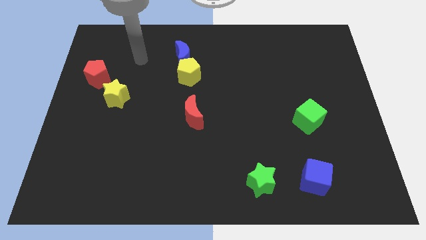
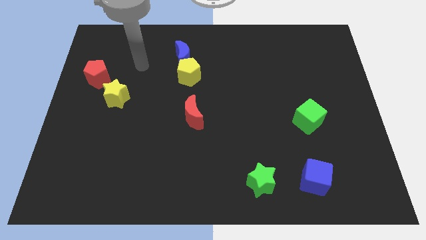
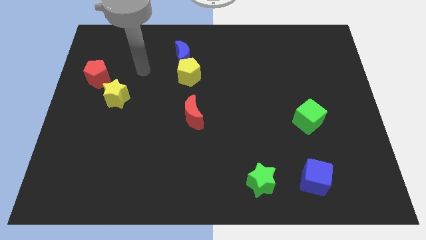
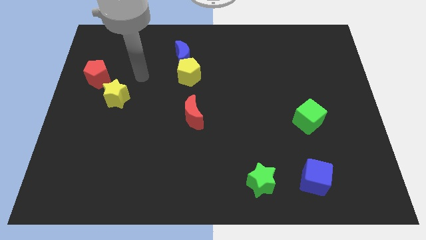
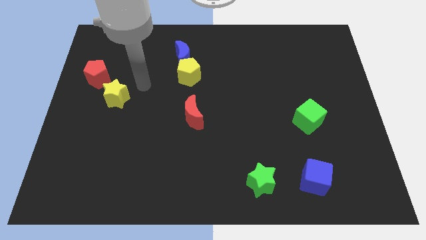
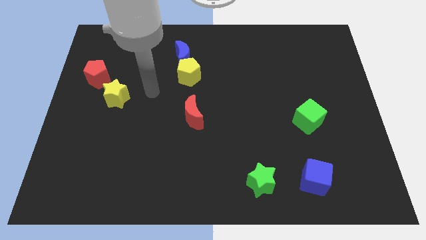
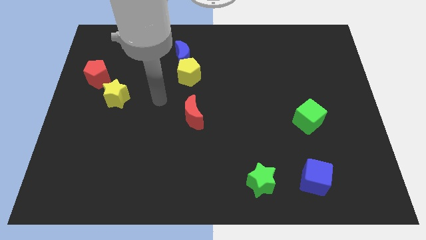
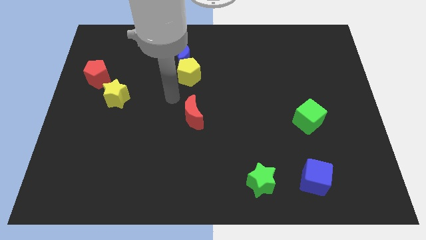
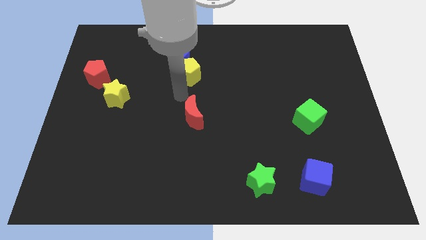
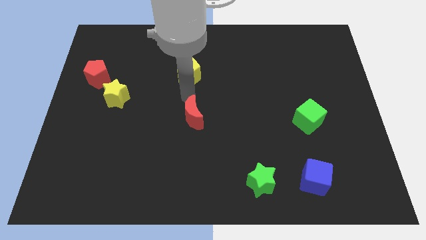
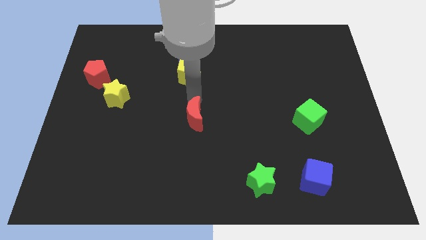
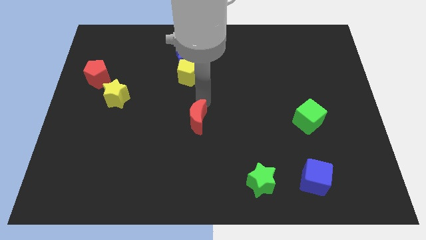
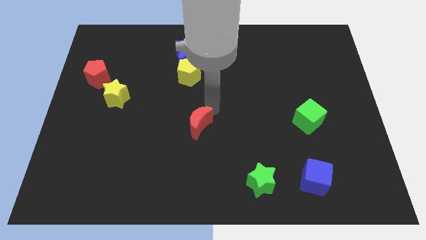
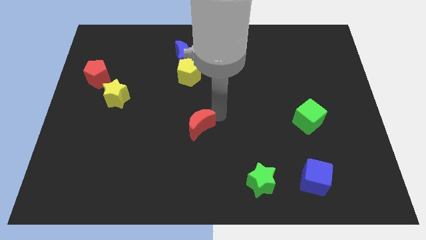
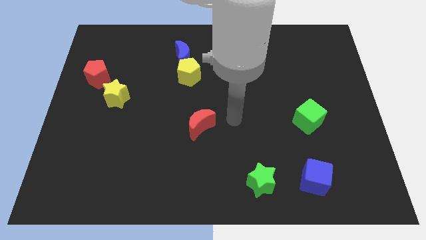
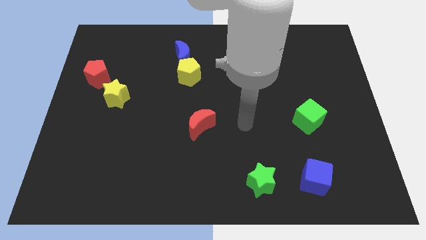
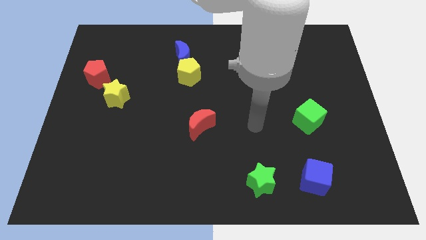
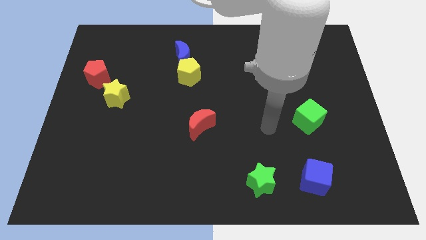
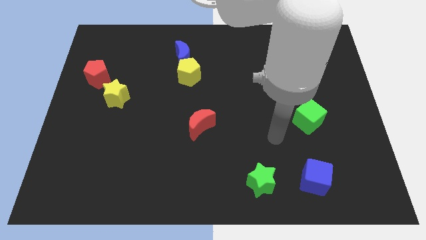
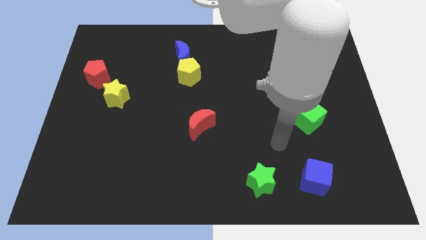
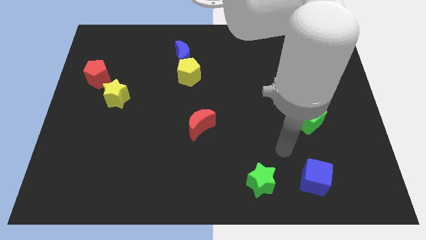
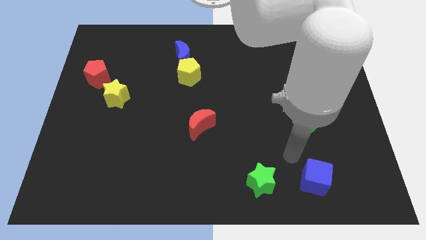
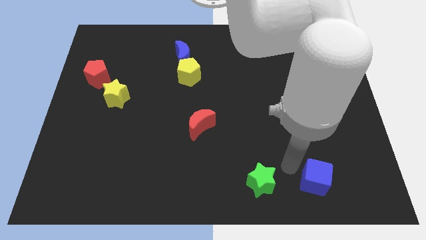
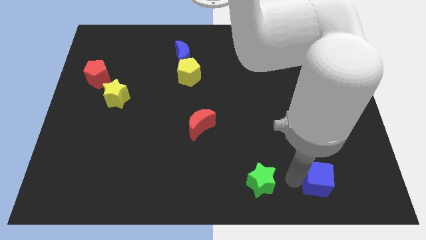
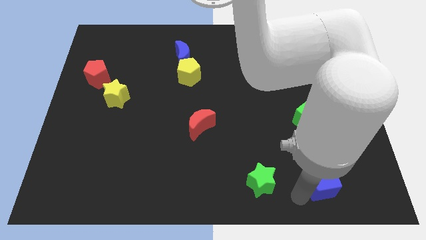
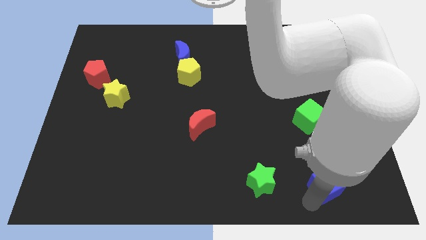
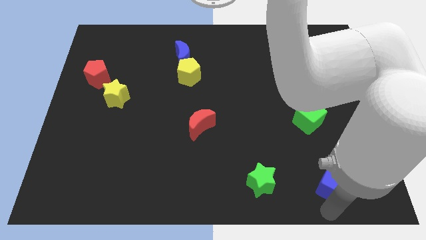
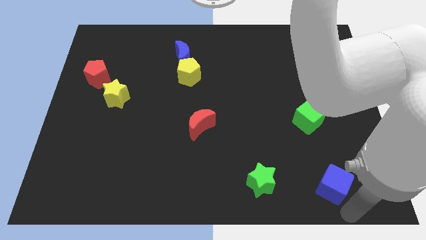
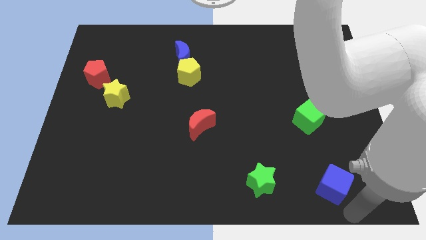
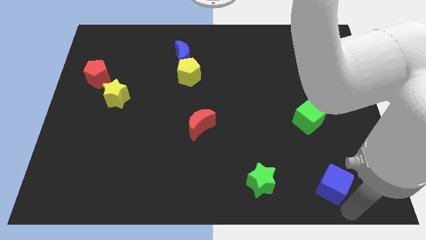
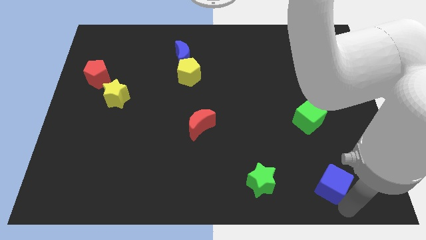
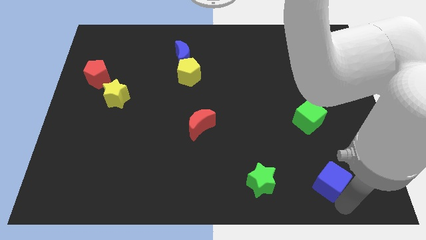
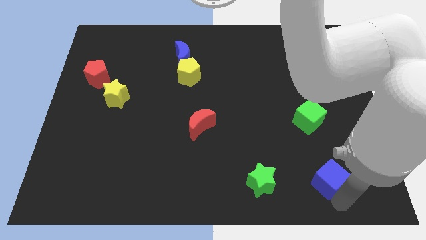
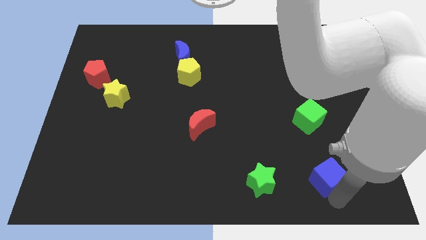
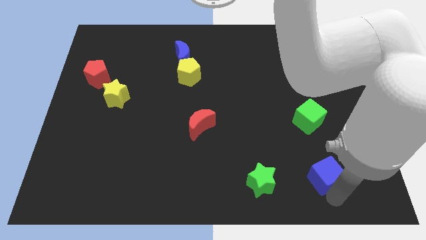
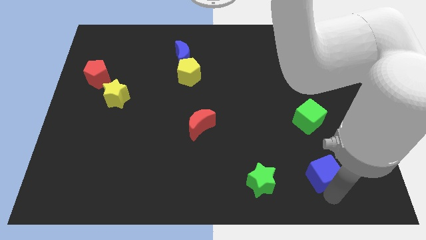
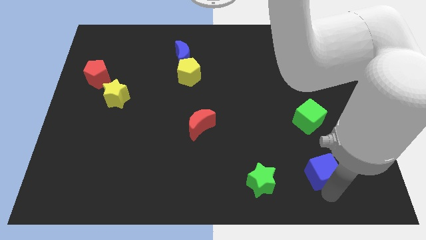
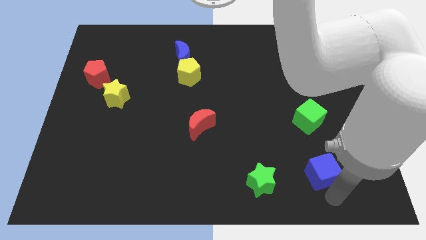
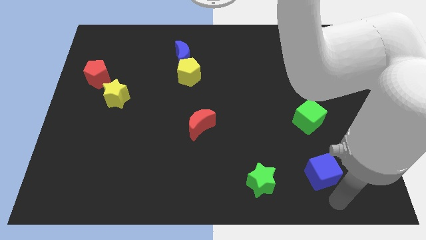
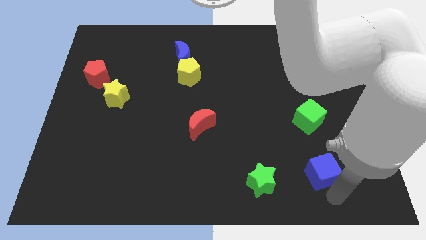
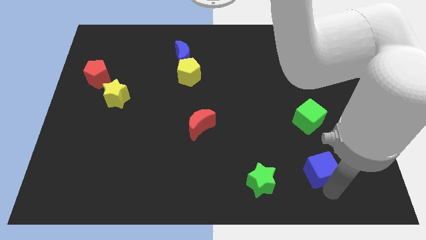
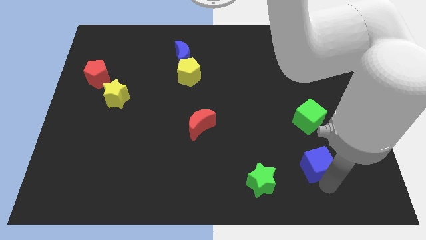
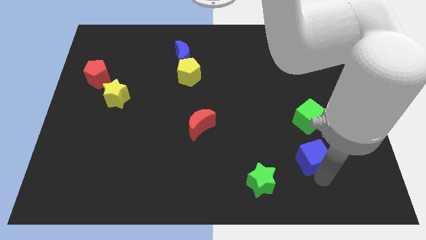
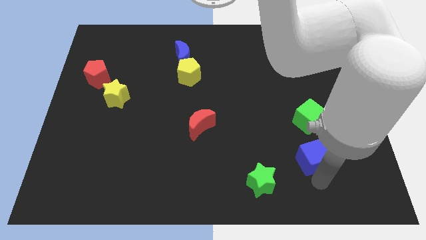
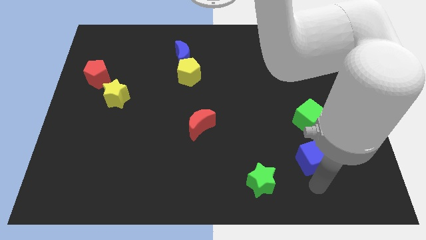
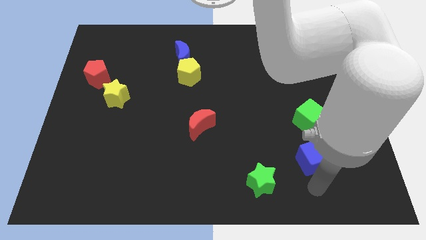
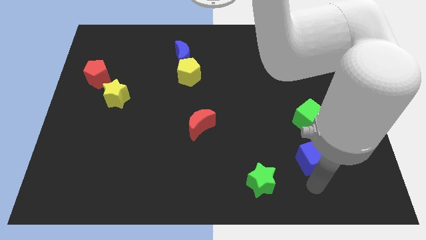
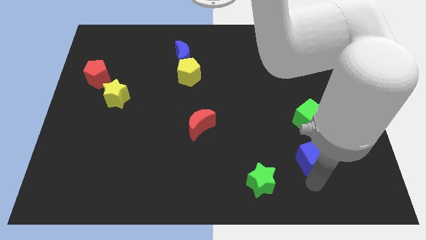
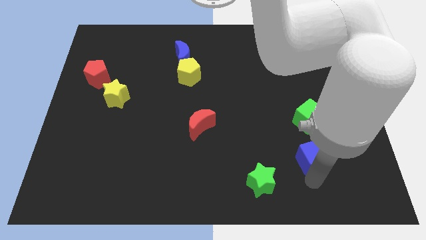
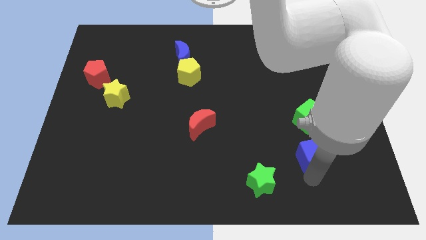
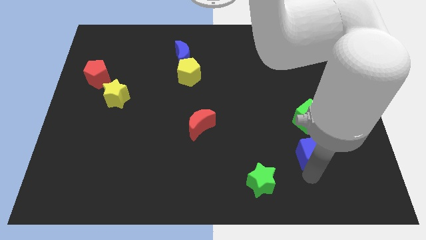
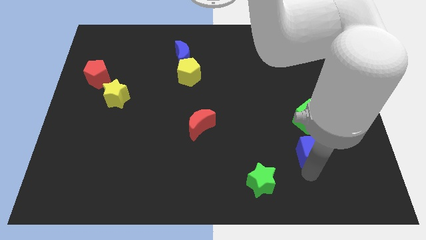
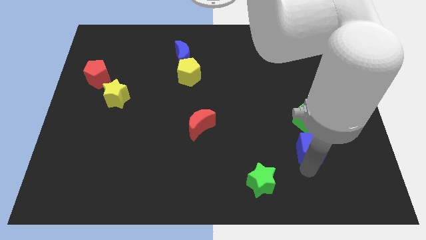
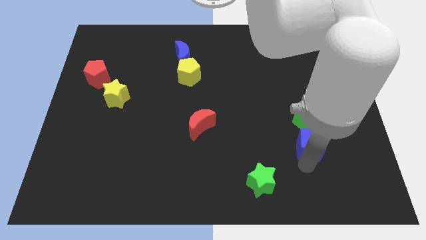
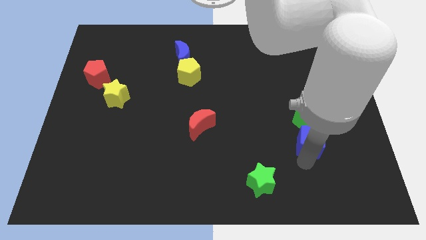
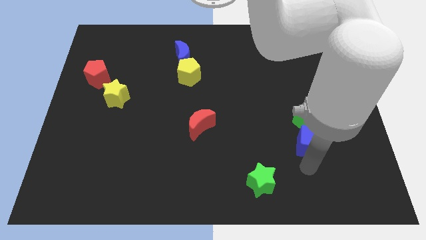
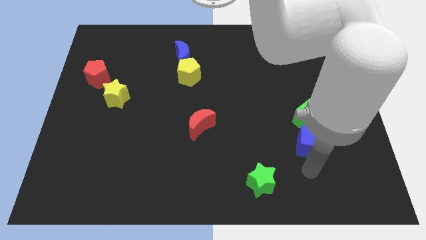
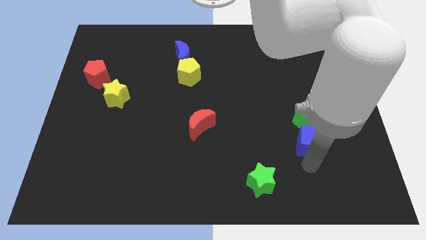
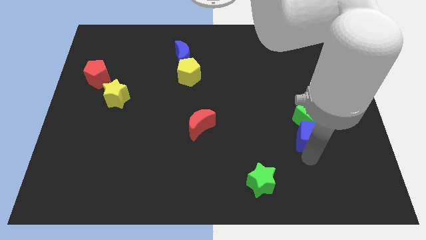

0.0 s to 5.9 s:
push the blue cube to the green cube
